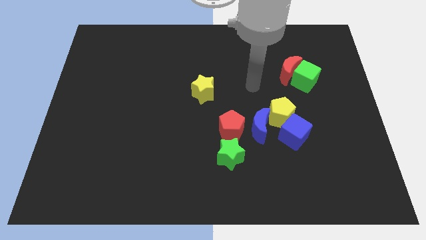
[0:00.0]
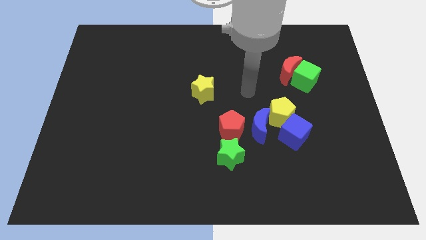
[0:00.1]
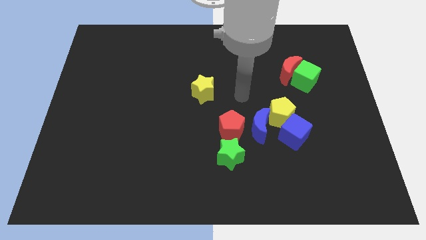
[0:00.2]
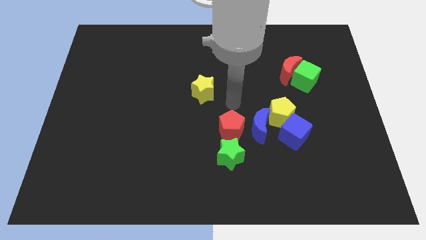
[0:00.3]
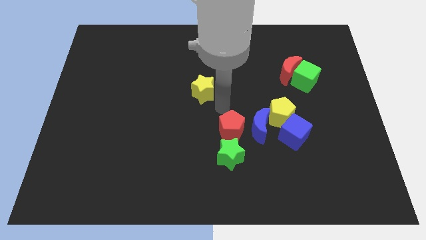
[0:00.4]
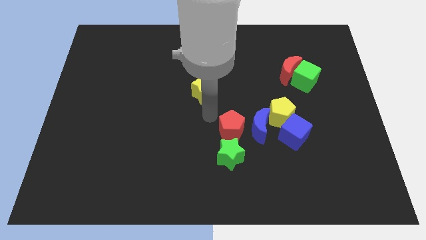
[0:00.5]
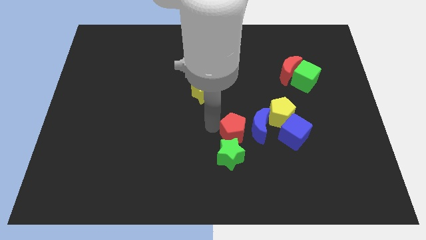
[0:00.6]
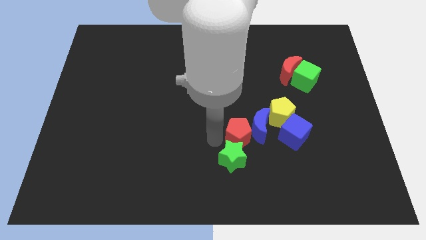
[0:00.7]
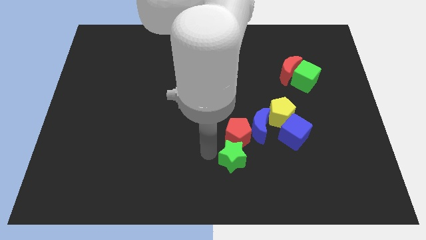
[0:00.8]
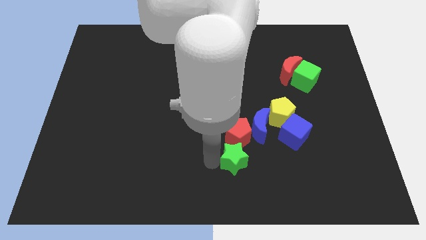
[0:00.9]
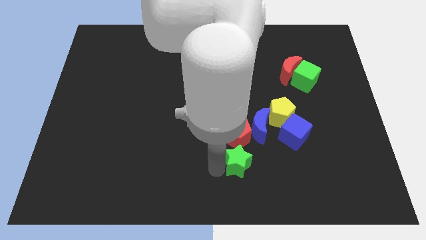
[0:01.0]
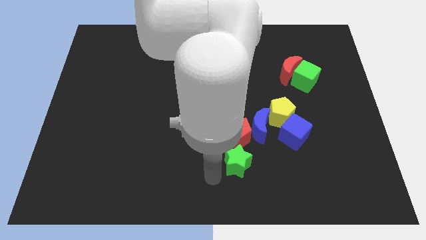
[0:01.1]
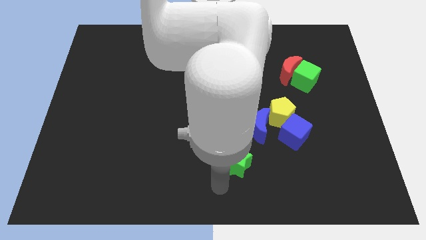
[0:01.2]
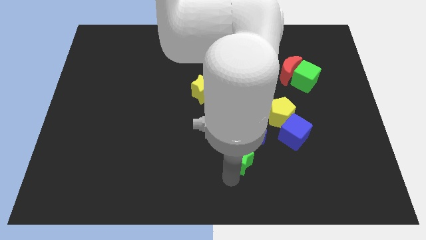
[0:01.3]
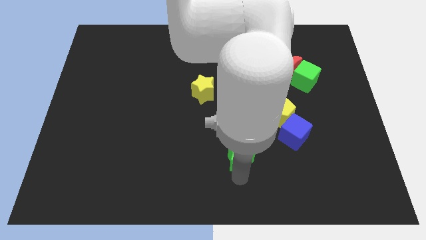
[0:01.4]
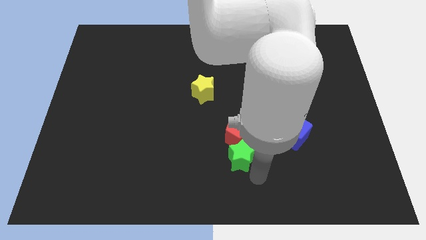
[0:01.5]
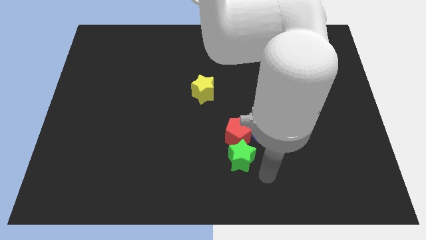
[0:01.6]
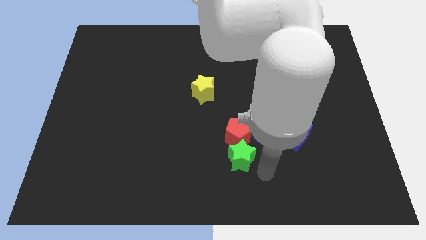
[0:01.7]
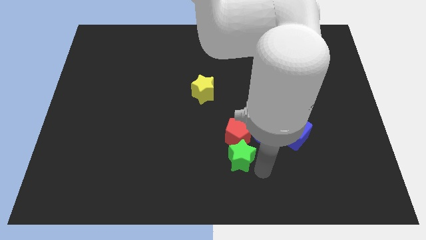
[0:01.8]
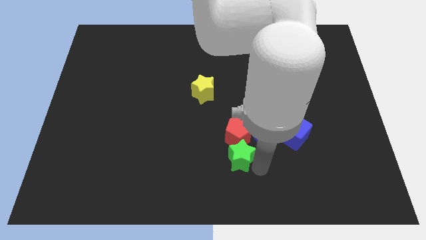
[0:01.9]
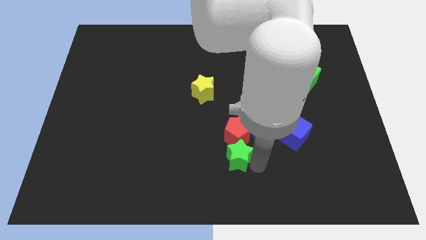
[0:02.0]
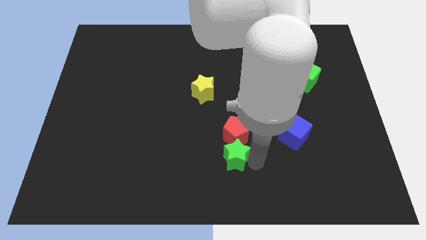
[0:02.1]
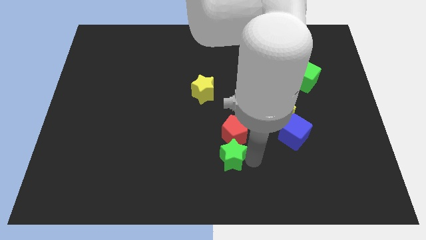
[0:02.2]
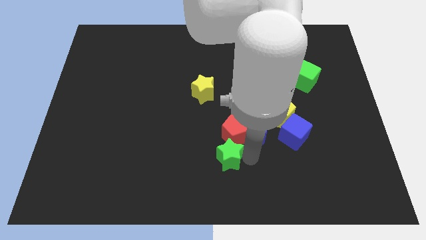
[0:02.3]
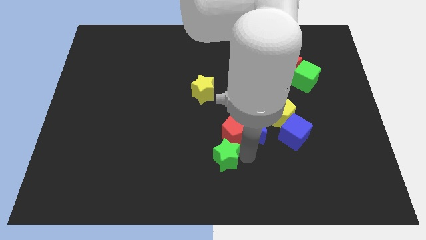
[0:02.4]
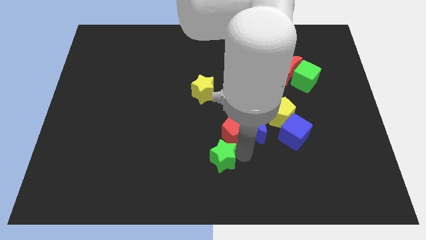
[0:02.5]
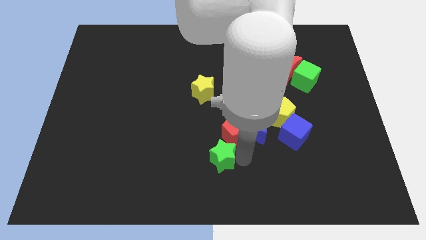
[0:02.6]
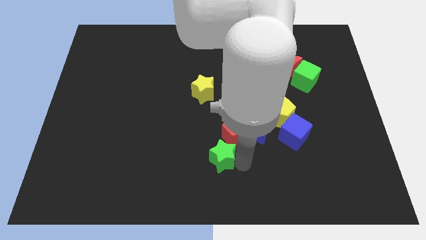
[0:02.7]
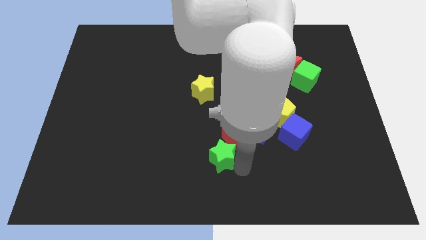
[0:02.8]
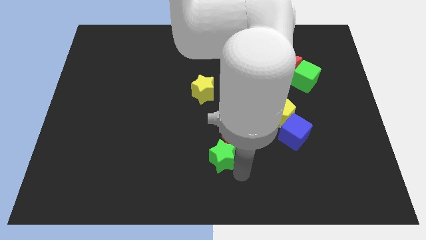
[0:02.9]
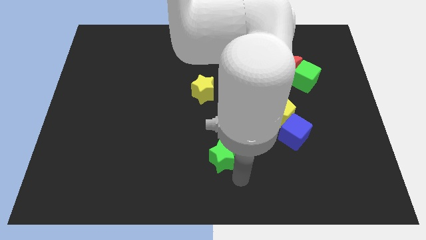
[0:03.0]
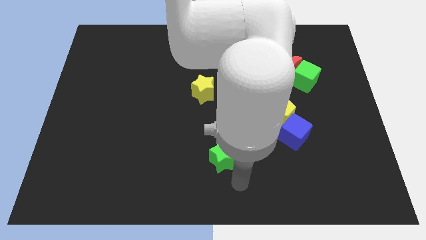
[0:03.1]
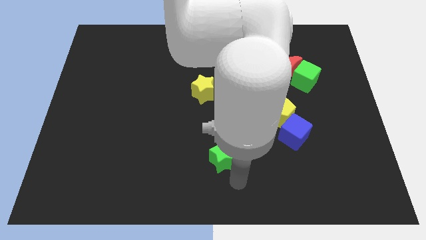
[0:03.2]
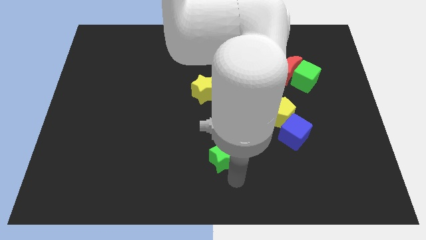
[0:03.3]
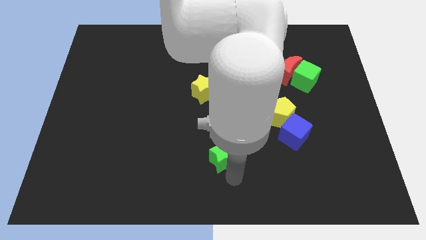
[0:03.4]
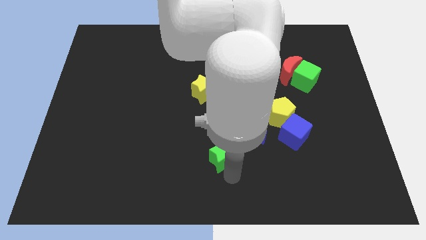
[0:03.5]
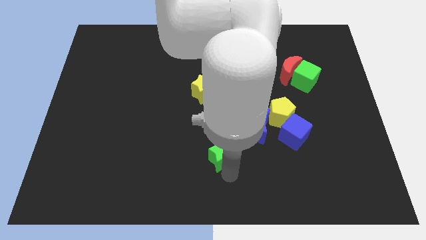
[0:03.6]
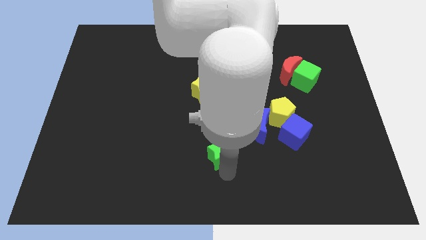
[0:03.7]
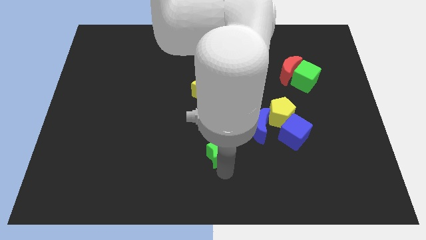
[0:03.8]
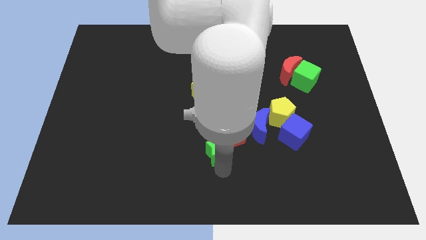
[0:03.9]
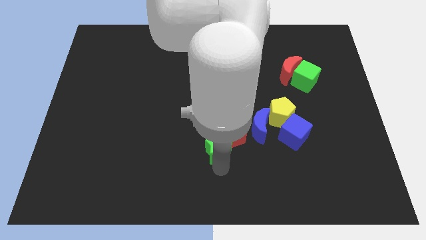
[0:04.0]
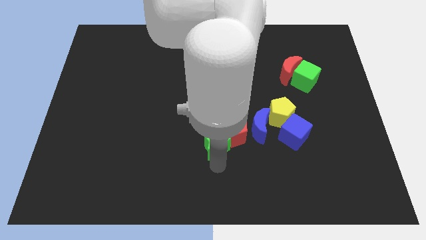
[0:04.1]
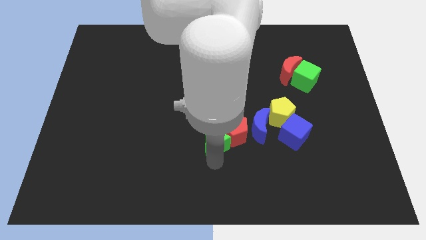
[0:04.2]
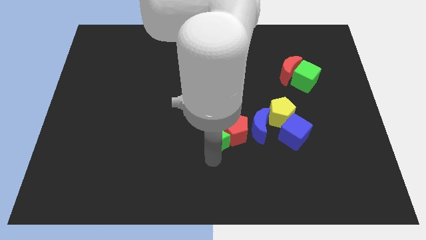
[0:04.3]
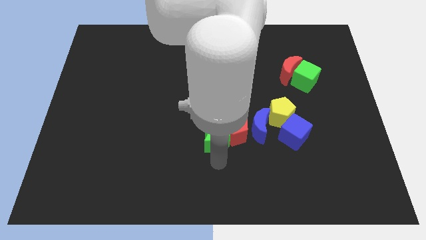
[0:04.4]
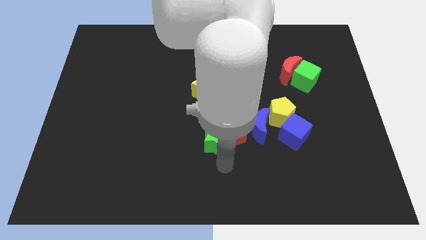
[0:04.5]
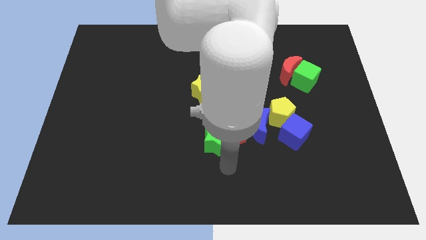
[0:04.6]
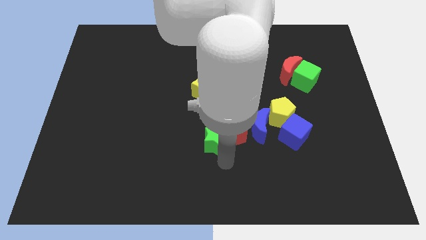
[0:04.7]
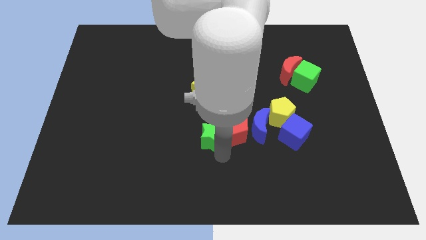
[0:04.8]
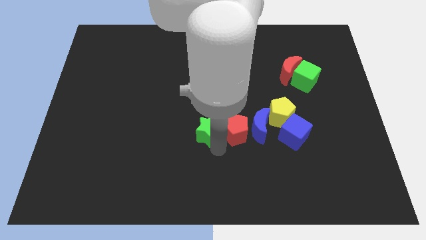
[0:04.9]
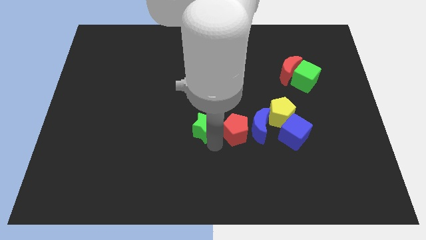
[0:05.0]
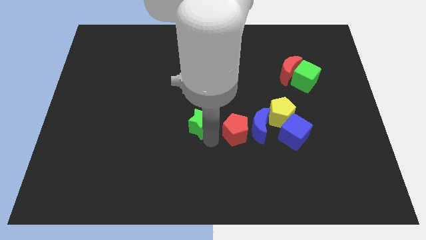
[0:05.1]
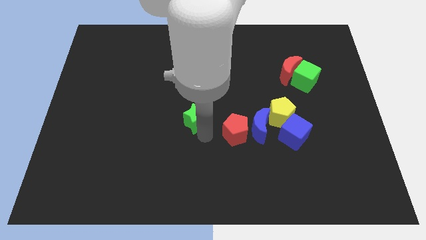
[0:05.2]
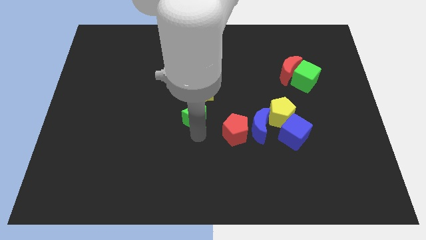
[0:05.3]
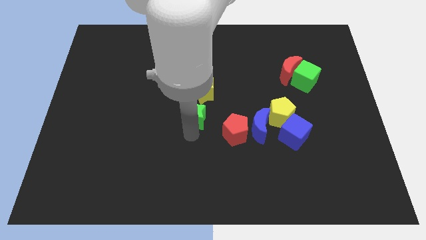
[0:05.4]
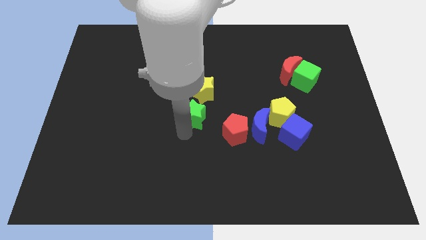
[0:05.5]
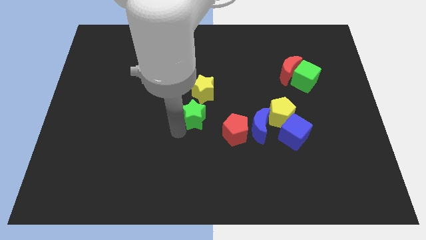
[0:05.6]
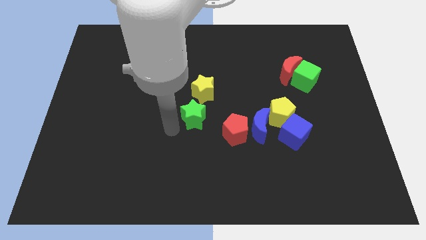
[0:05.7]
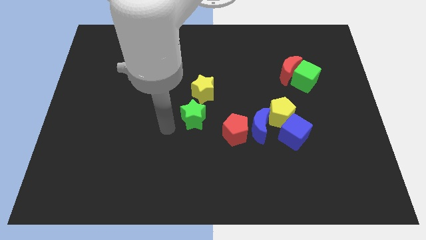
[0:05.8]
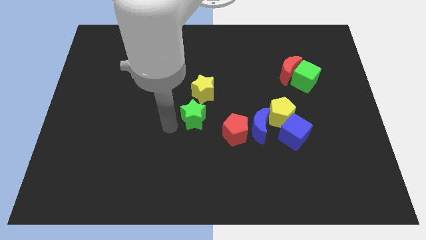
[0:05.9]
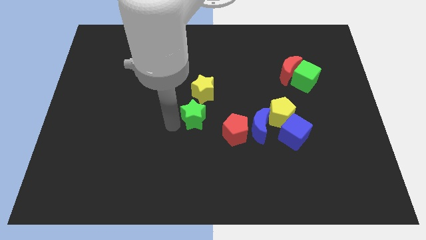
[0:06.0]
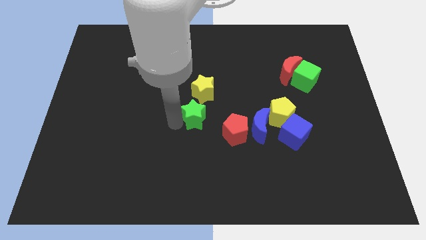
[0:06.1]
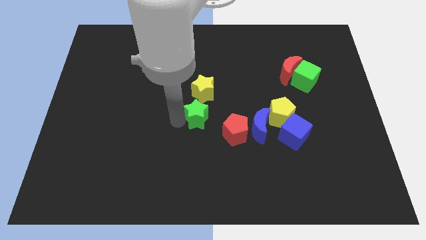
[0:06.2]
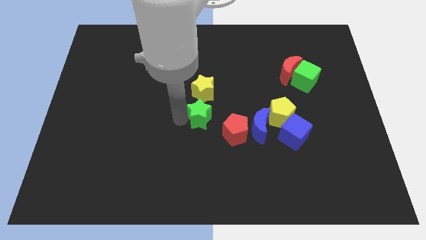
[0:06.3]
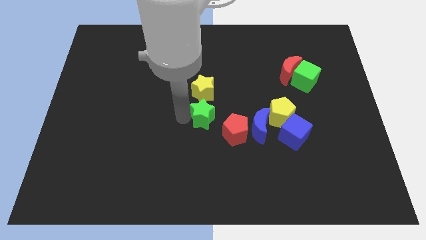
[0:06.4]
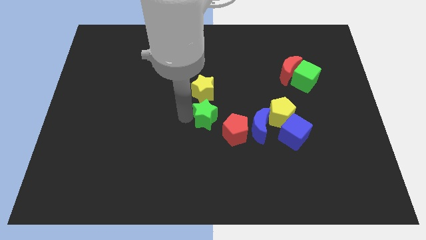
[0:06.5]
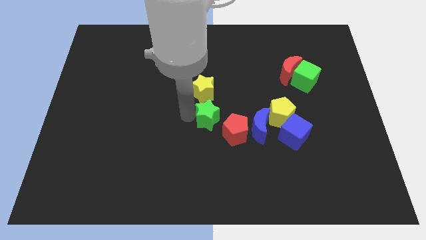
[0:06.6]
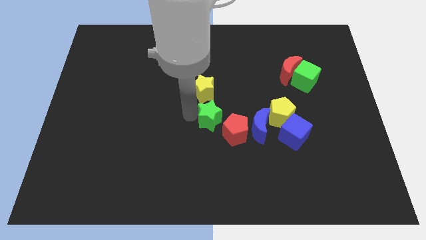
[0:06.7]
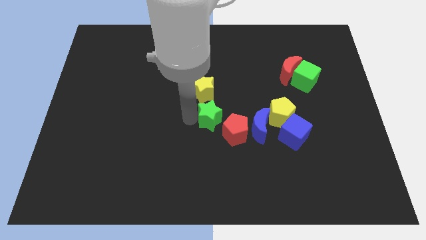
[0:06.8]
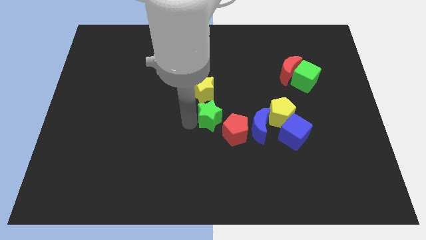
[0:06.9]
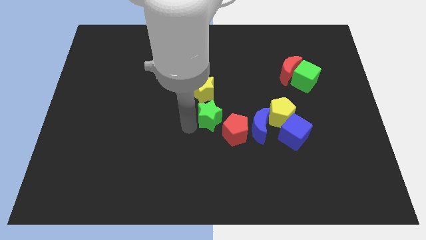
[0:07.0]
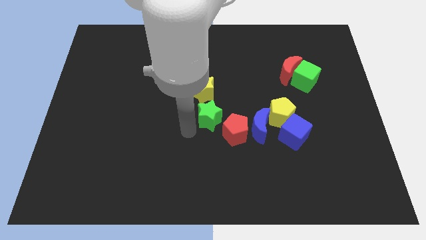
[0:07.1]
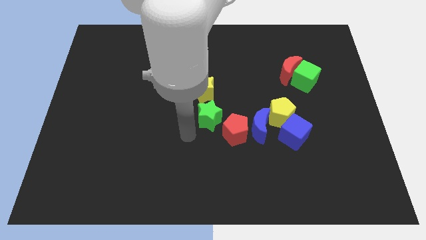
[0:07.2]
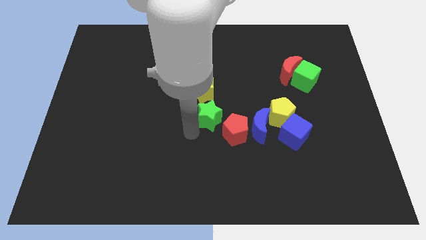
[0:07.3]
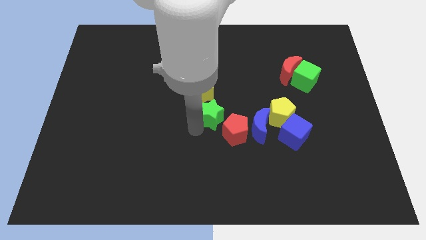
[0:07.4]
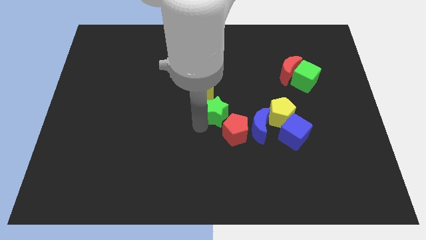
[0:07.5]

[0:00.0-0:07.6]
move the green star to the top side of the red pentagon
